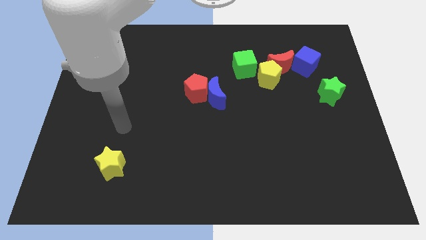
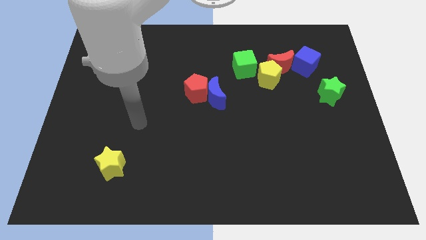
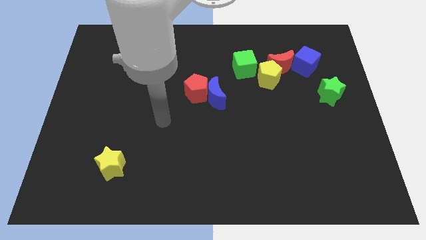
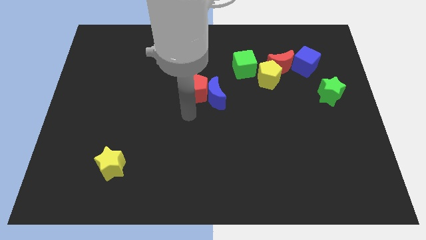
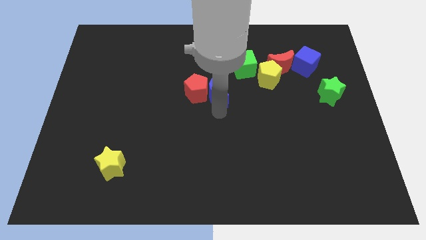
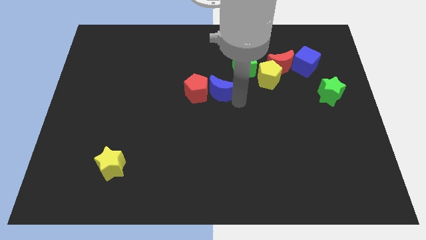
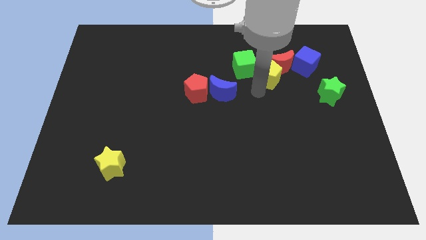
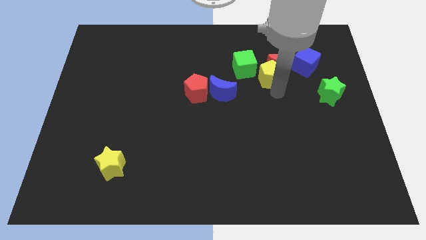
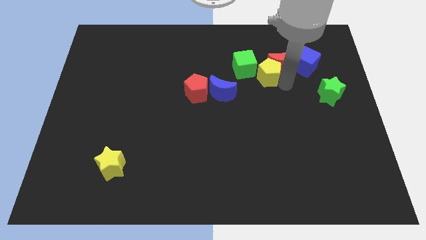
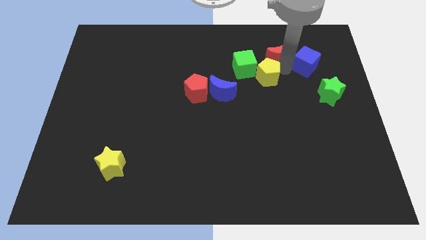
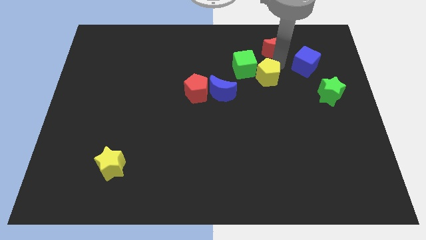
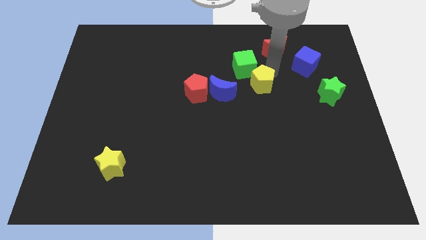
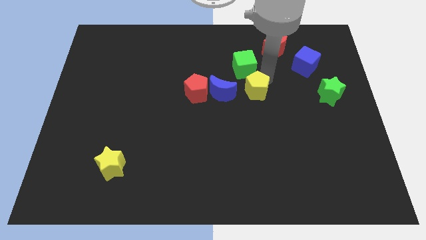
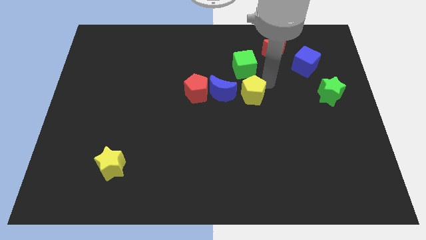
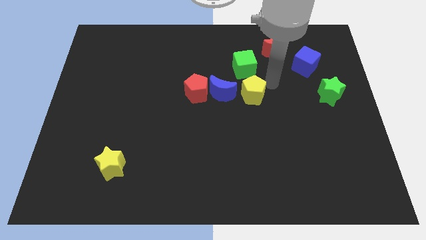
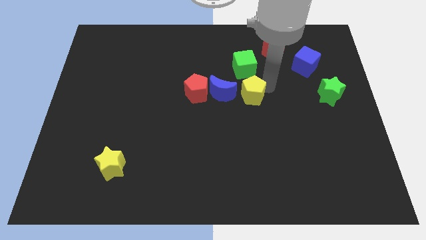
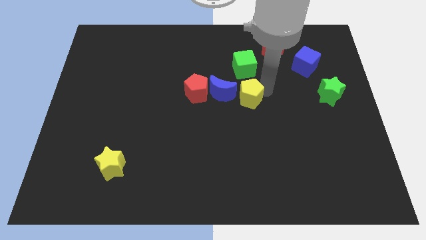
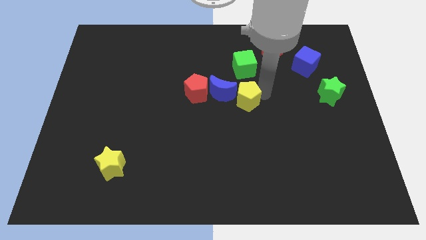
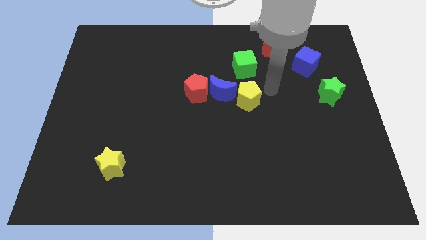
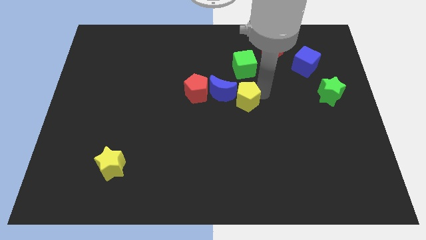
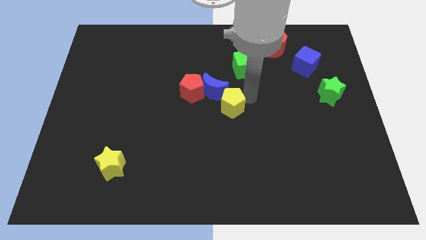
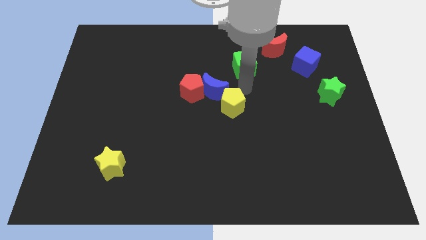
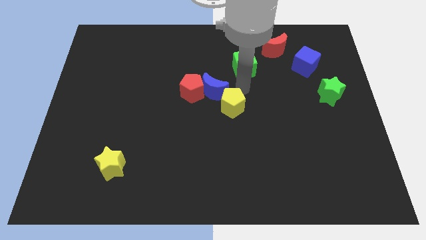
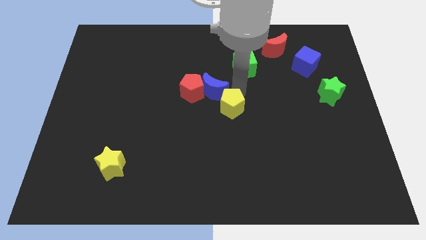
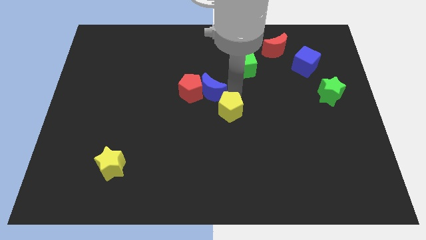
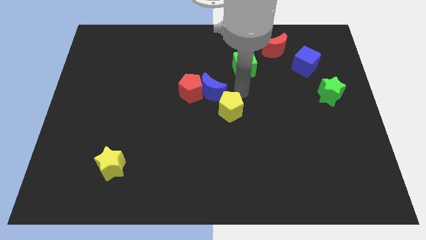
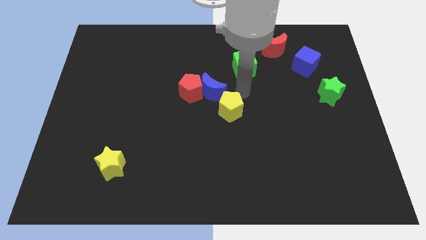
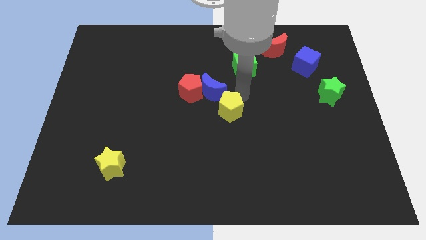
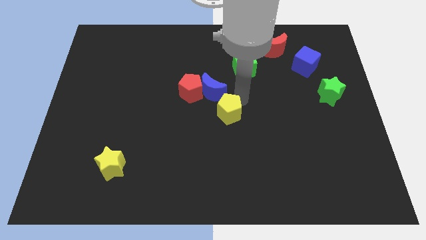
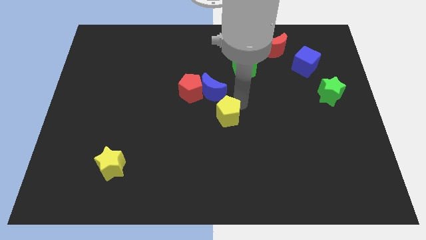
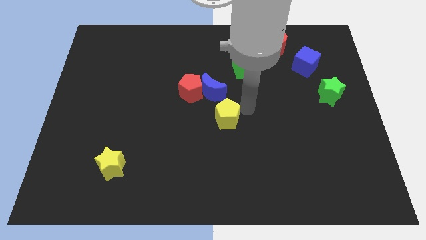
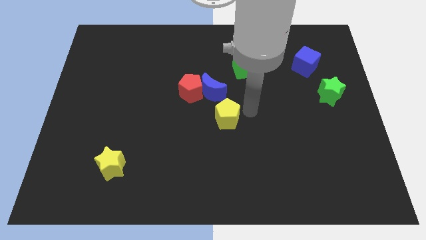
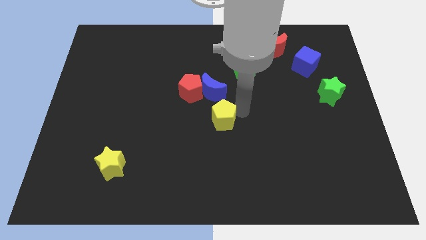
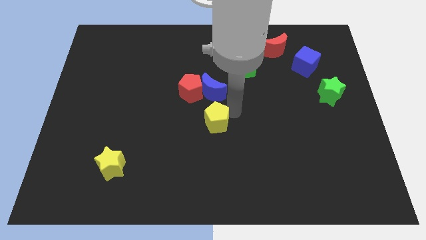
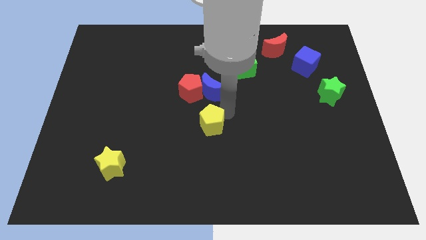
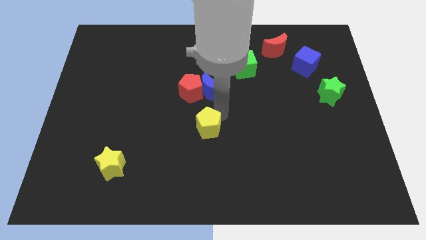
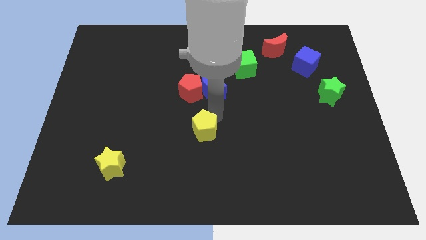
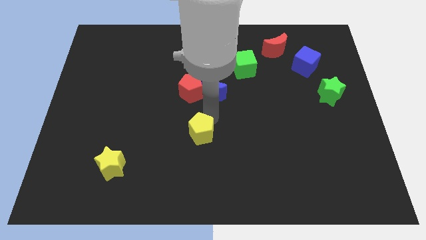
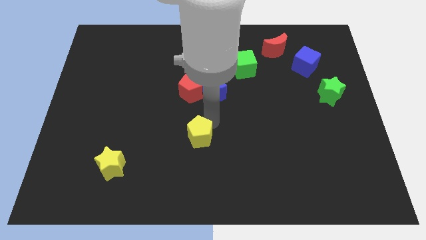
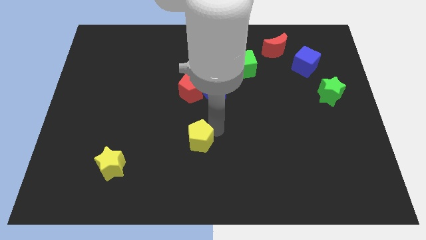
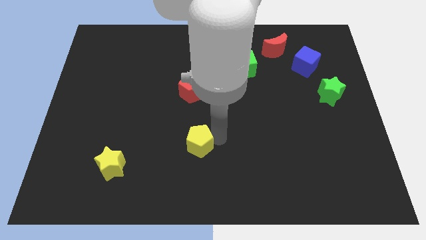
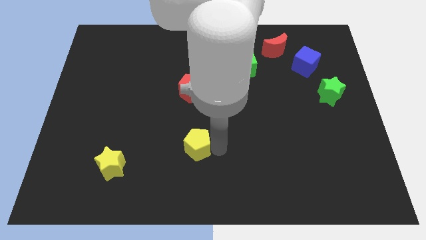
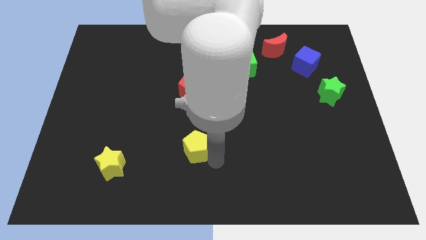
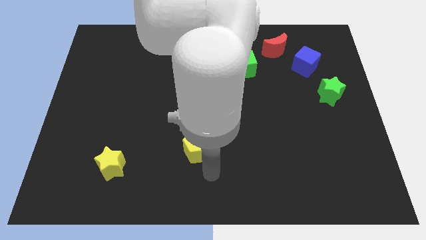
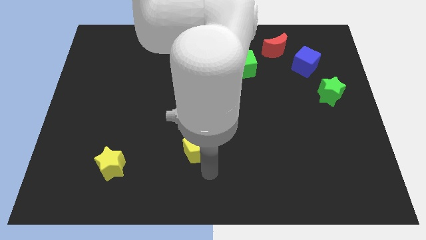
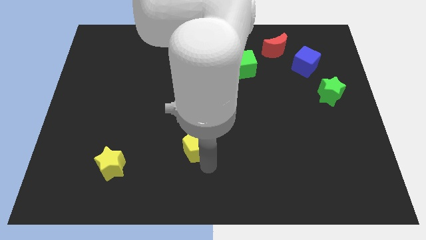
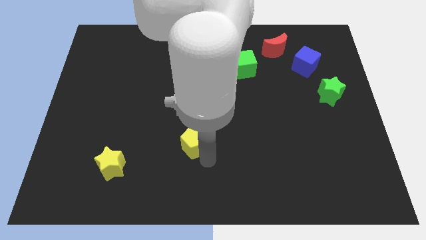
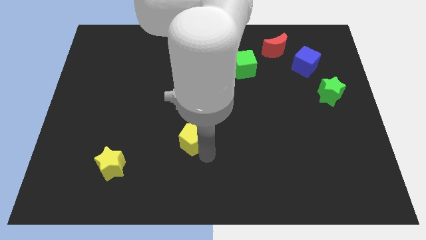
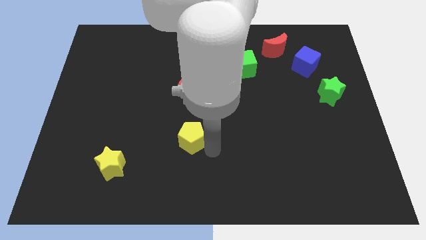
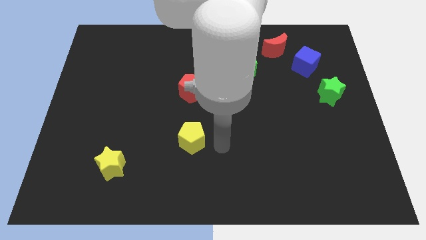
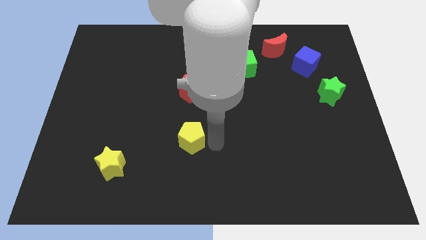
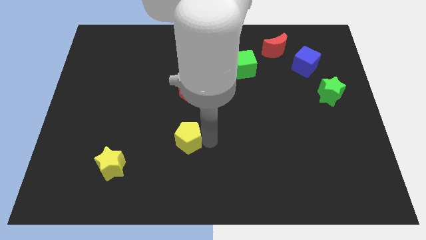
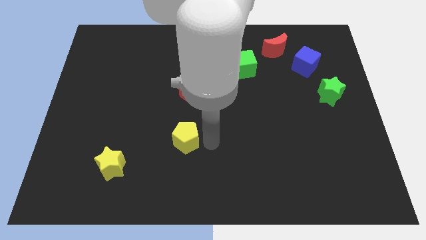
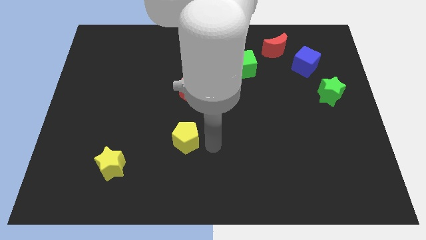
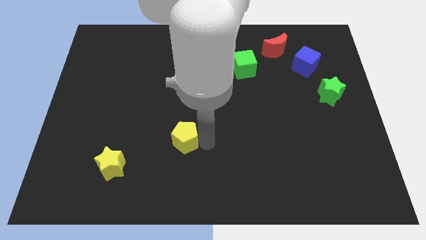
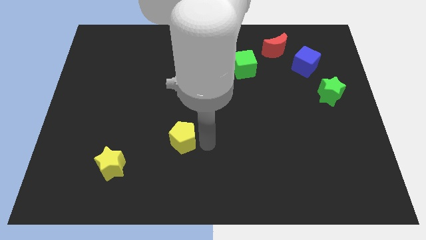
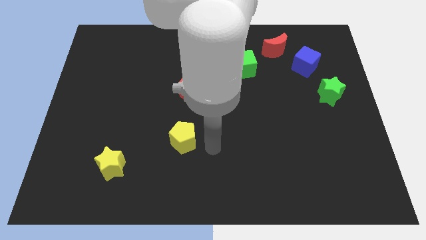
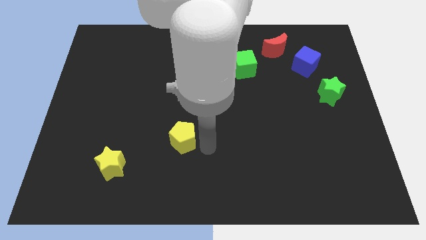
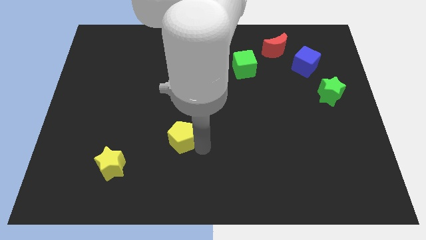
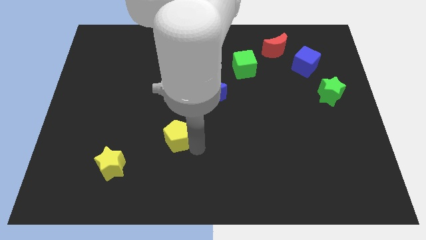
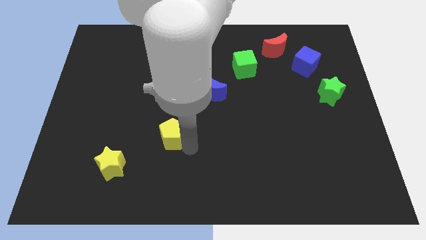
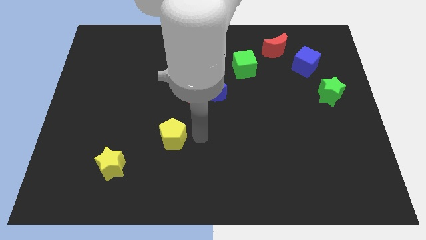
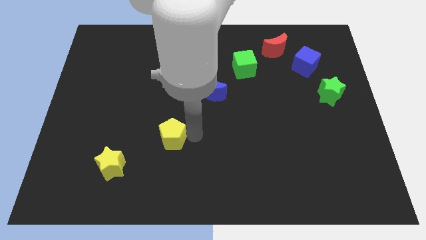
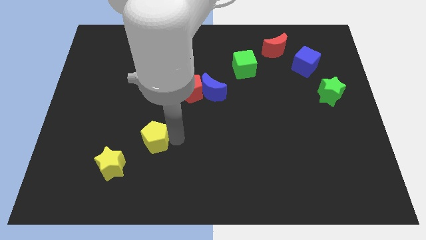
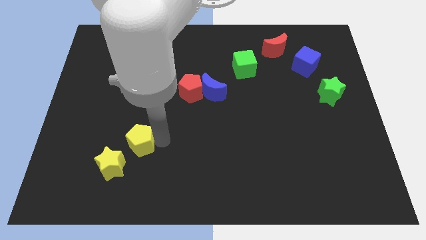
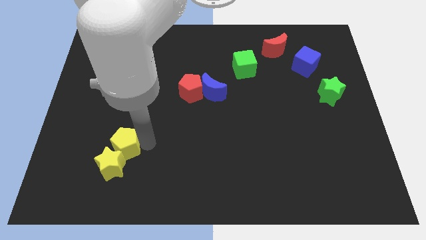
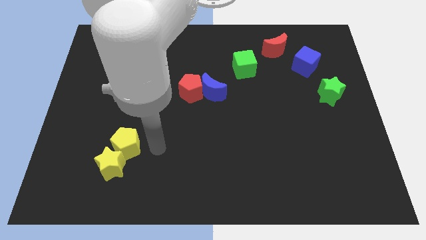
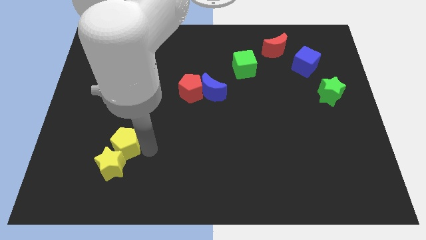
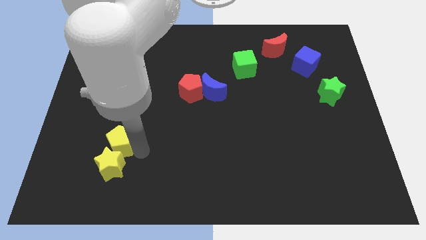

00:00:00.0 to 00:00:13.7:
put the yellow pentagon to the top left of the yellow star
